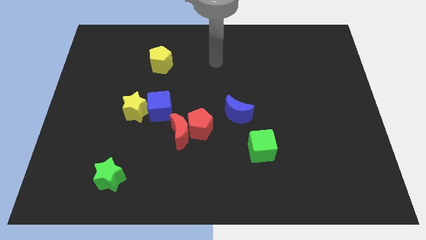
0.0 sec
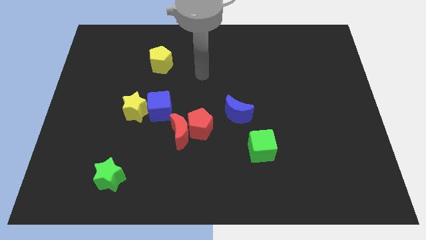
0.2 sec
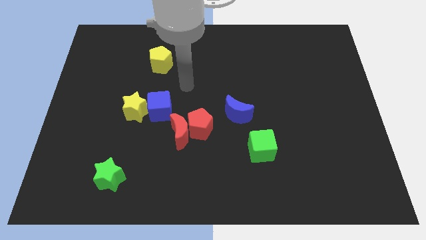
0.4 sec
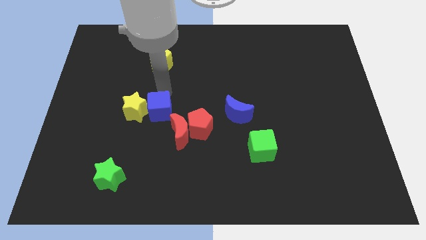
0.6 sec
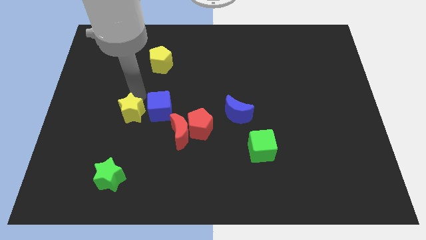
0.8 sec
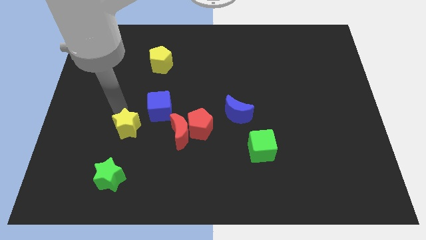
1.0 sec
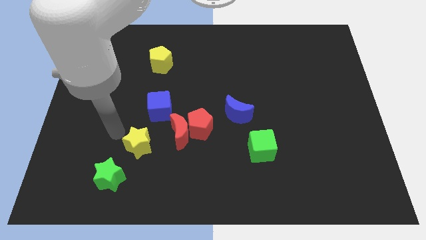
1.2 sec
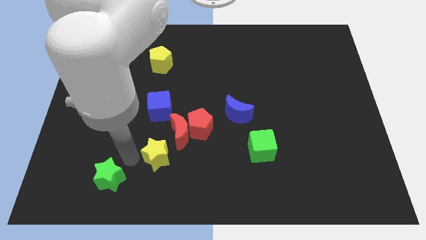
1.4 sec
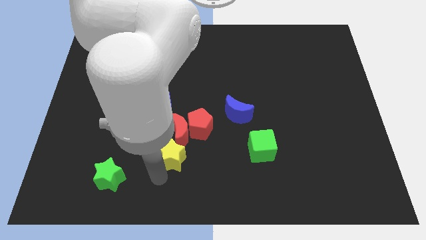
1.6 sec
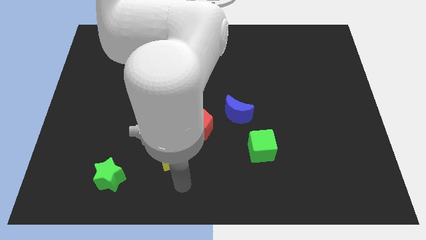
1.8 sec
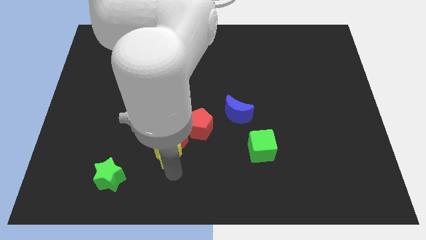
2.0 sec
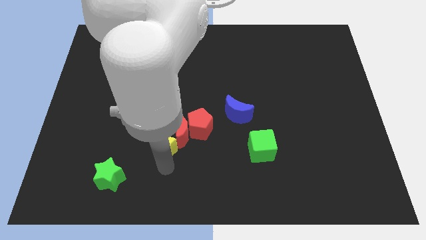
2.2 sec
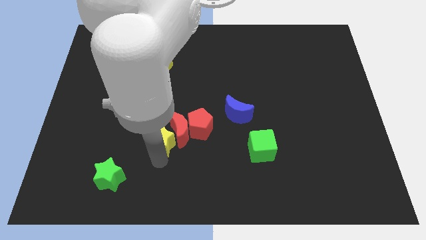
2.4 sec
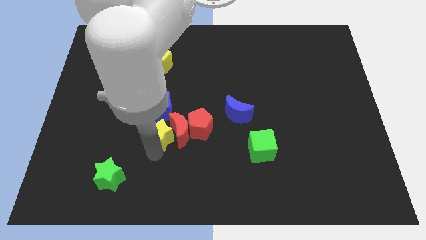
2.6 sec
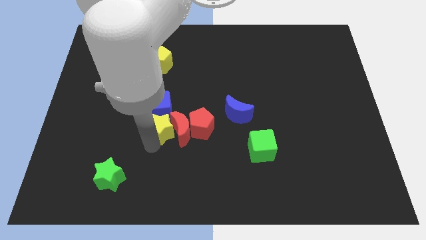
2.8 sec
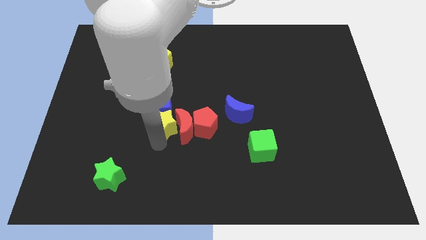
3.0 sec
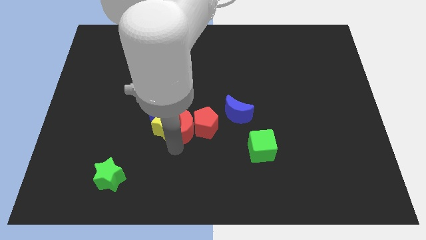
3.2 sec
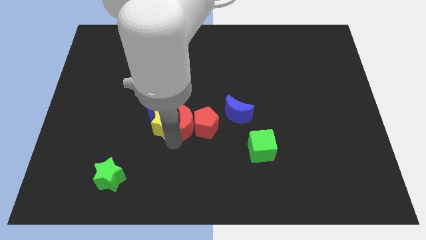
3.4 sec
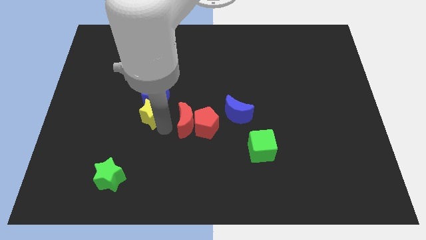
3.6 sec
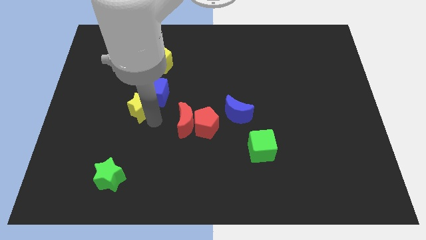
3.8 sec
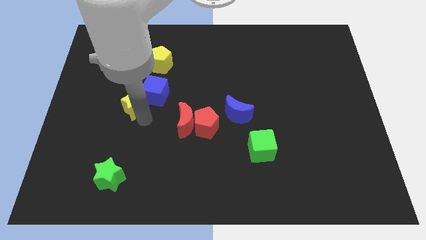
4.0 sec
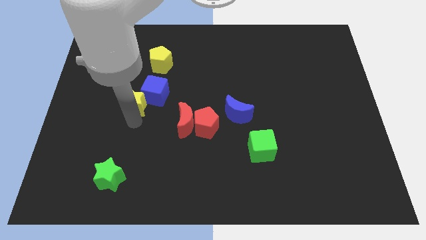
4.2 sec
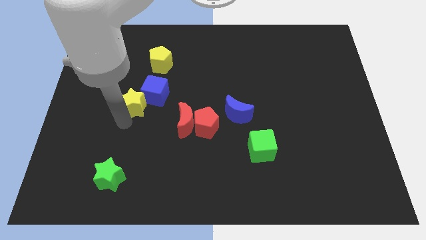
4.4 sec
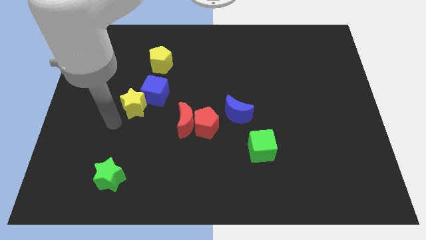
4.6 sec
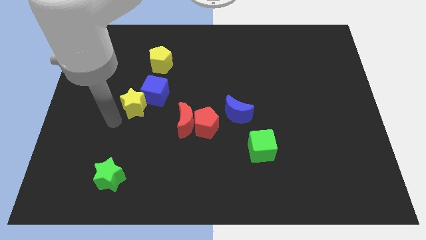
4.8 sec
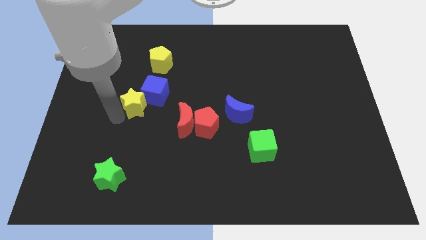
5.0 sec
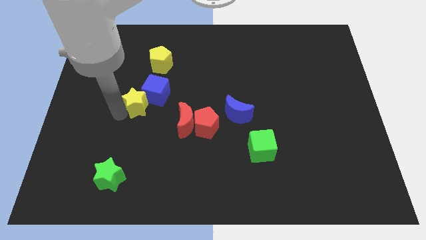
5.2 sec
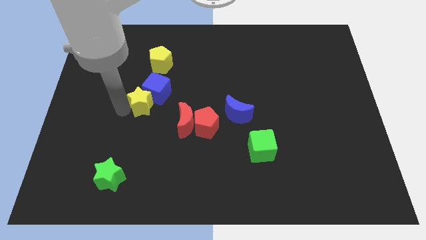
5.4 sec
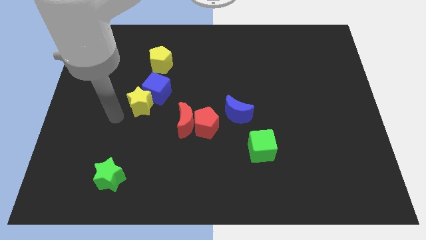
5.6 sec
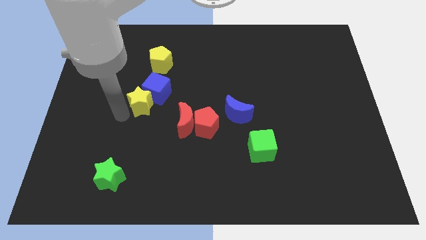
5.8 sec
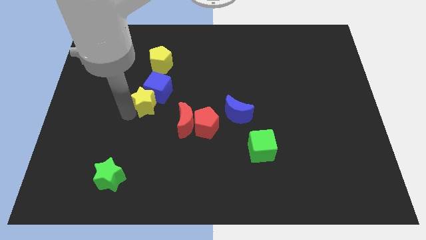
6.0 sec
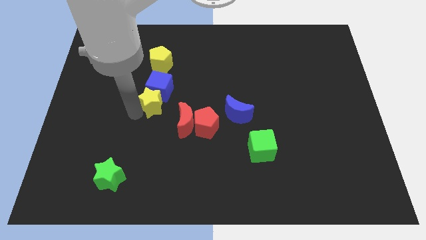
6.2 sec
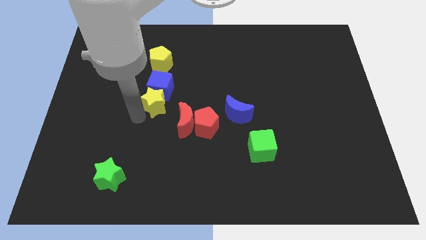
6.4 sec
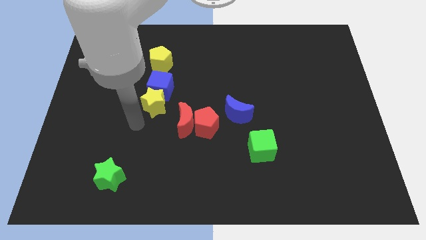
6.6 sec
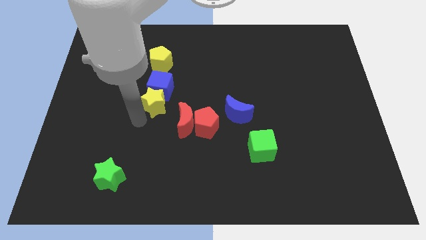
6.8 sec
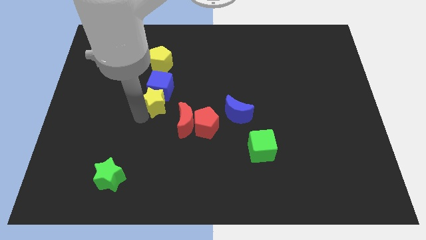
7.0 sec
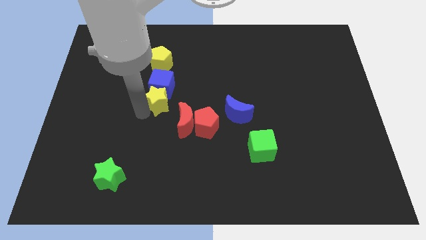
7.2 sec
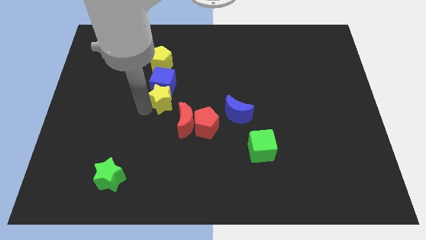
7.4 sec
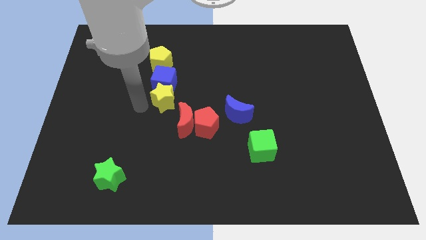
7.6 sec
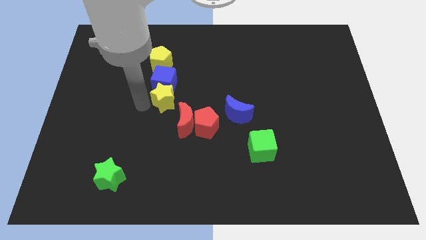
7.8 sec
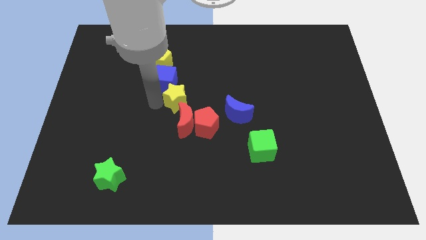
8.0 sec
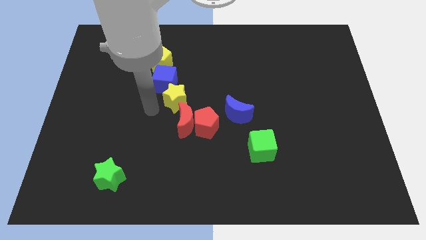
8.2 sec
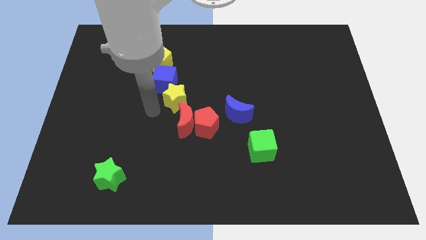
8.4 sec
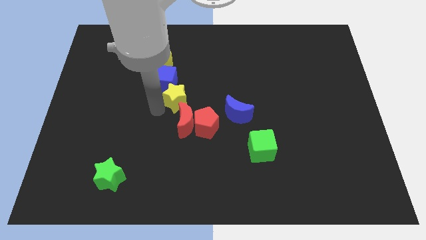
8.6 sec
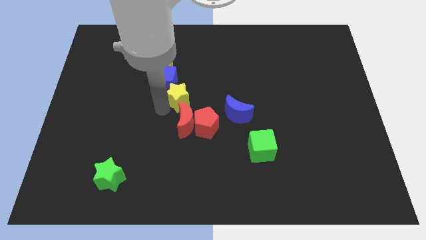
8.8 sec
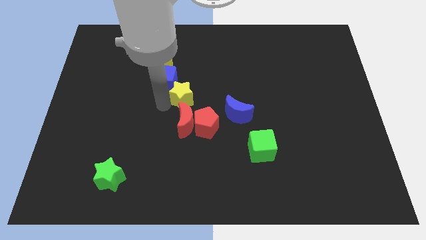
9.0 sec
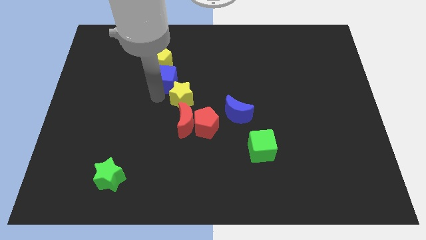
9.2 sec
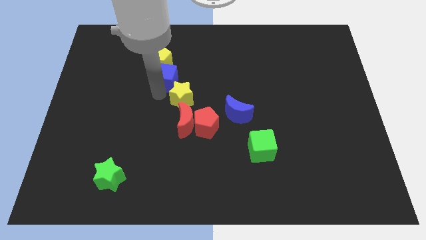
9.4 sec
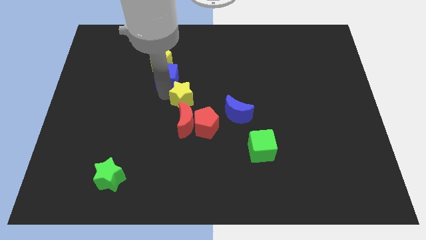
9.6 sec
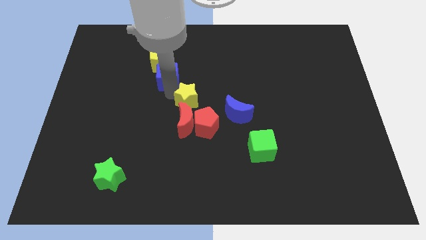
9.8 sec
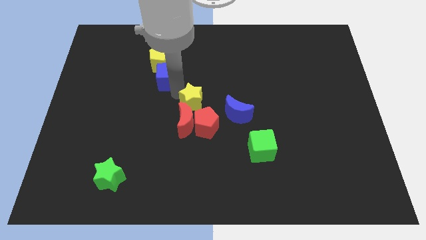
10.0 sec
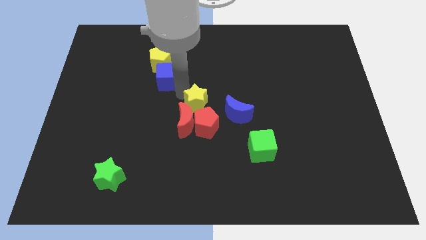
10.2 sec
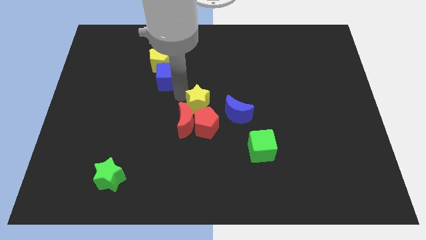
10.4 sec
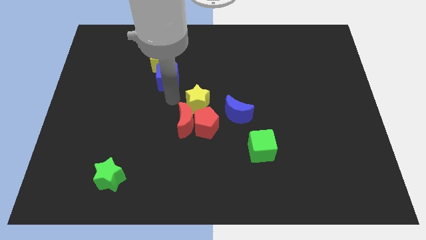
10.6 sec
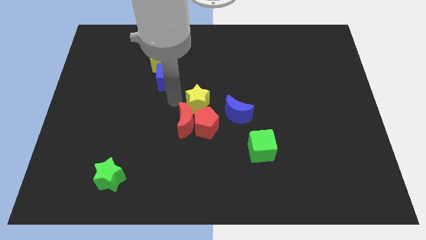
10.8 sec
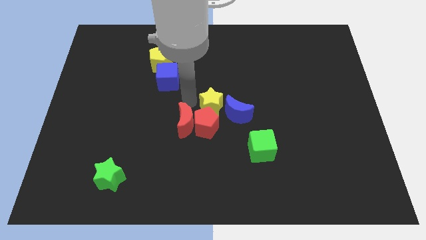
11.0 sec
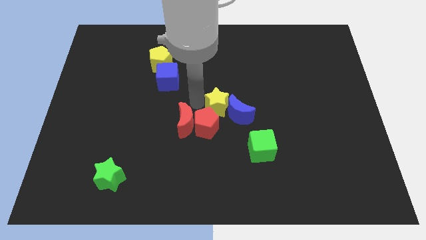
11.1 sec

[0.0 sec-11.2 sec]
put the yellow star to the blue moon

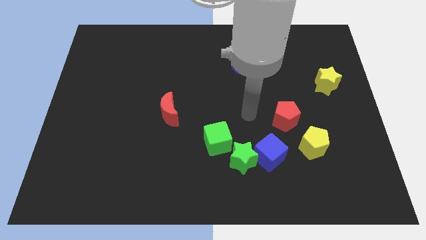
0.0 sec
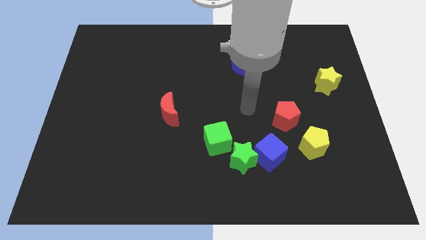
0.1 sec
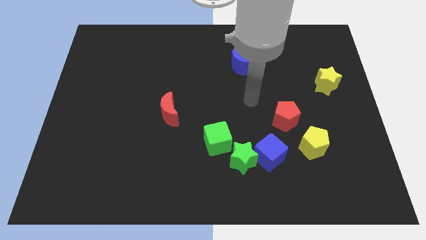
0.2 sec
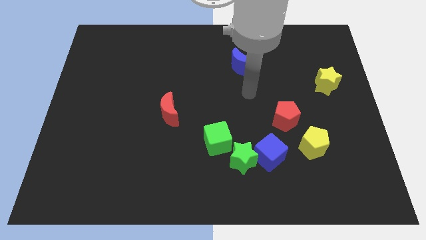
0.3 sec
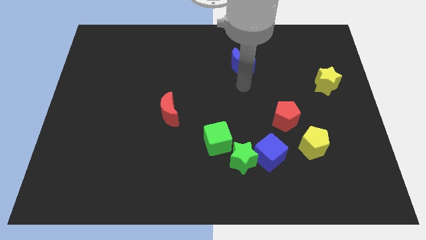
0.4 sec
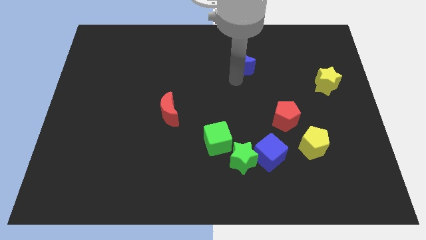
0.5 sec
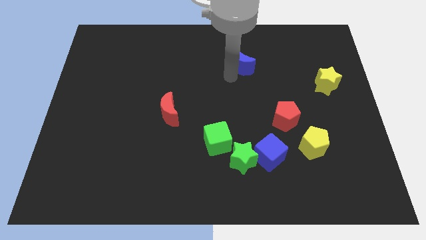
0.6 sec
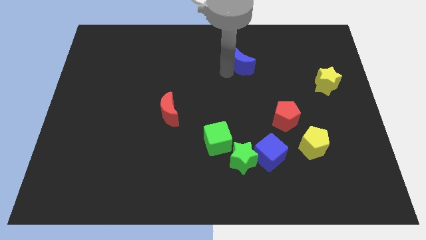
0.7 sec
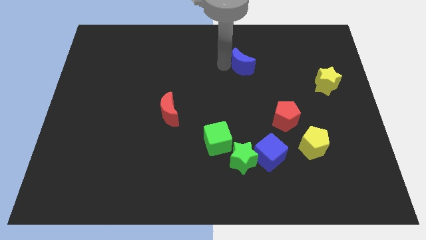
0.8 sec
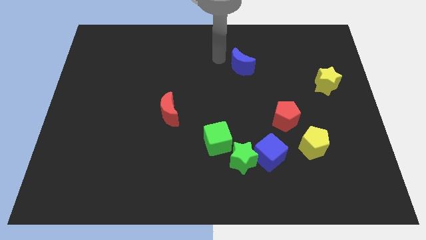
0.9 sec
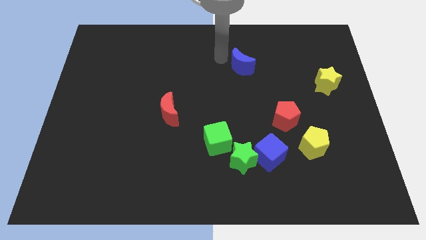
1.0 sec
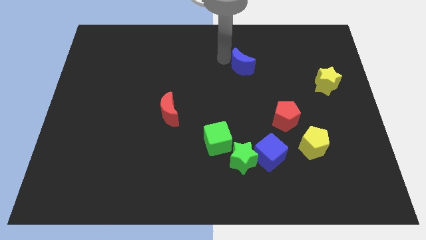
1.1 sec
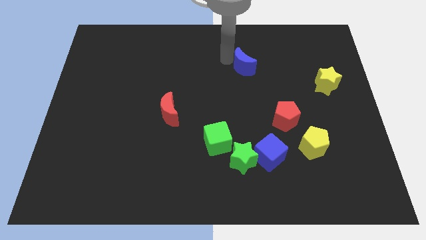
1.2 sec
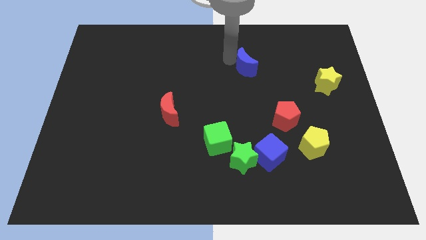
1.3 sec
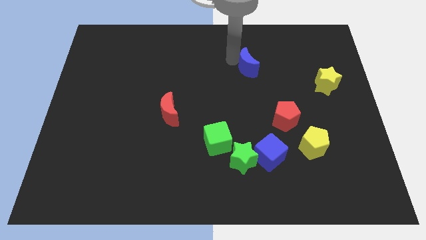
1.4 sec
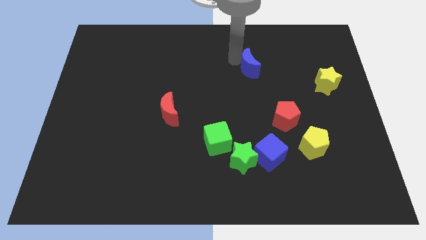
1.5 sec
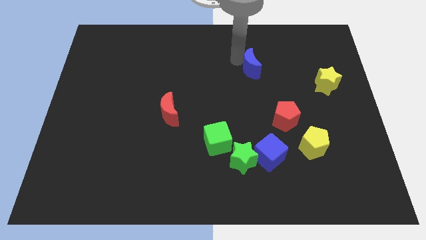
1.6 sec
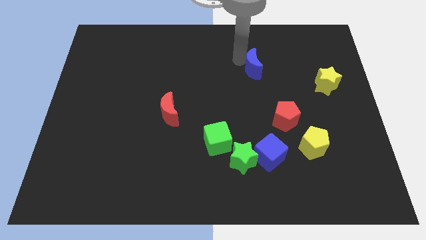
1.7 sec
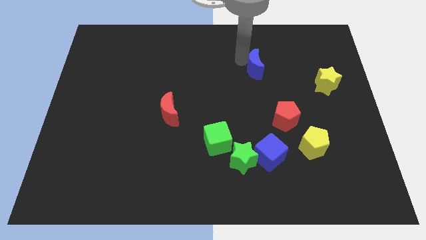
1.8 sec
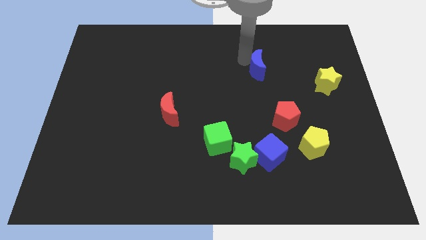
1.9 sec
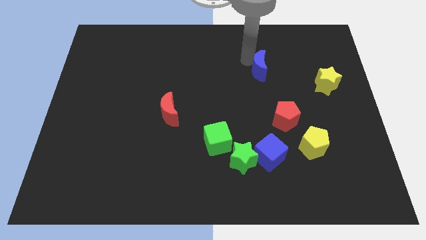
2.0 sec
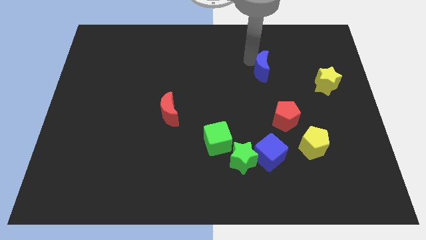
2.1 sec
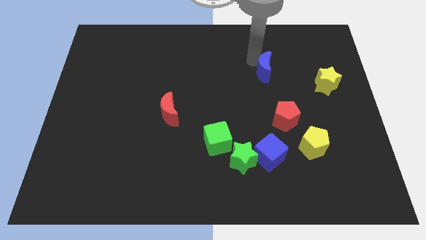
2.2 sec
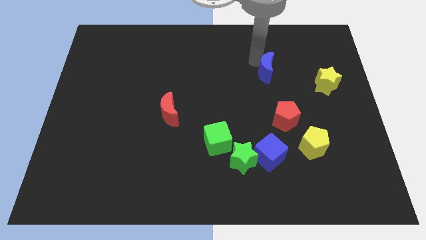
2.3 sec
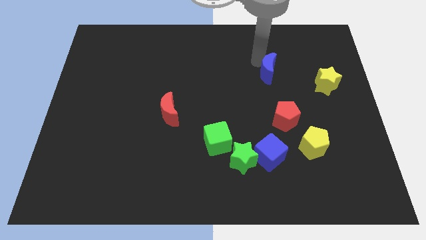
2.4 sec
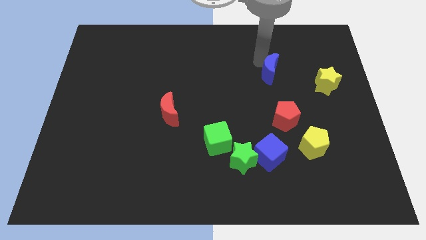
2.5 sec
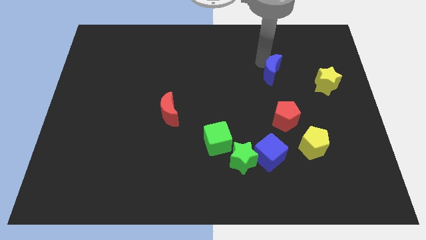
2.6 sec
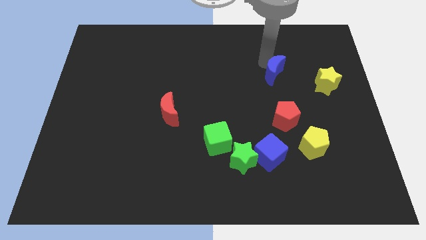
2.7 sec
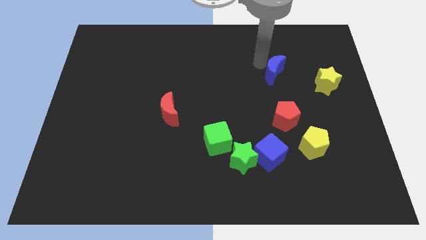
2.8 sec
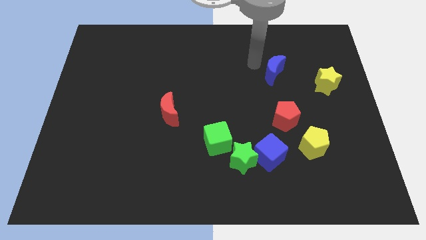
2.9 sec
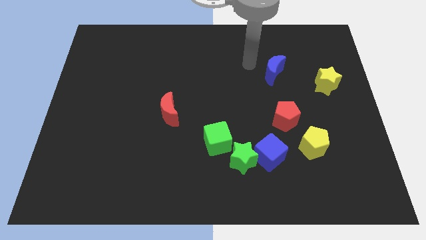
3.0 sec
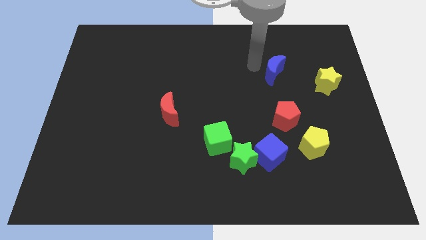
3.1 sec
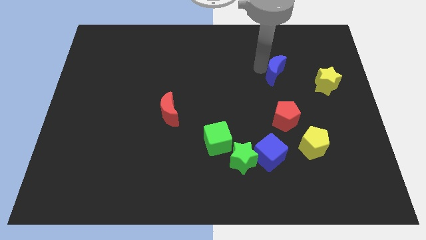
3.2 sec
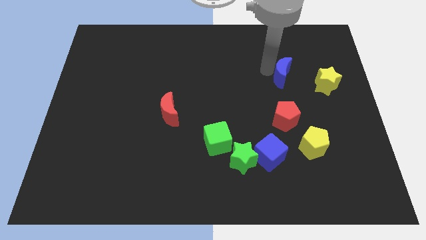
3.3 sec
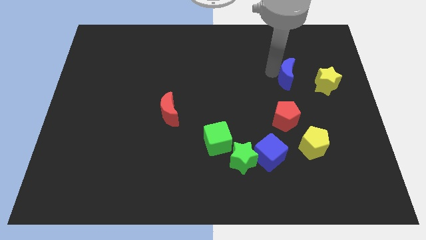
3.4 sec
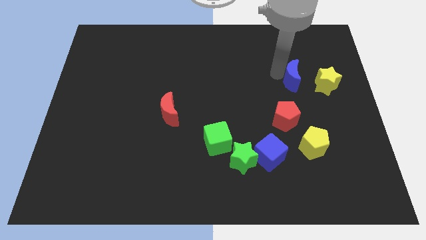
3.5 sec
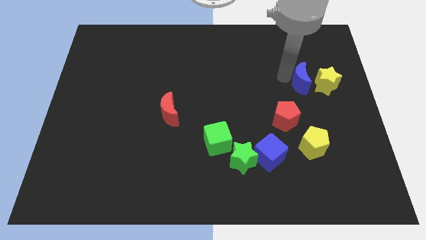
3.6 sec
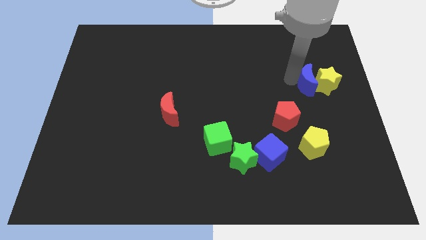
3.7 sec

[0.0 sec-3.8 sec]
put the blue moon towards the yellow star
